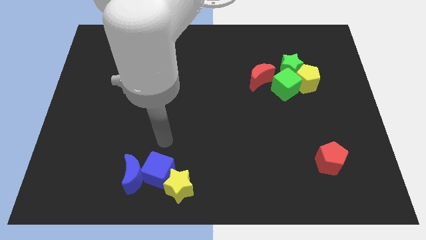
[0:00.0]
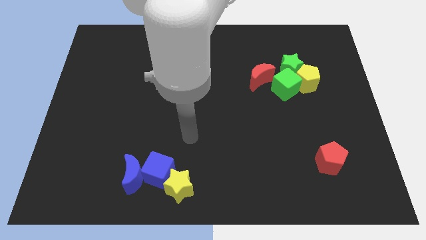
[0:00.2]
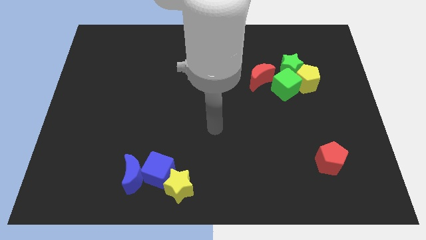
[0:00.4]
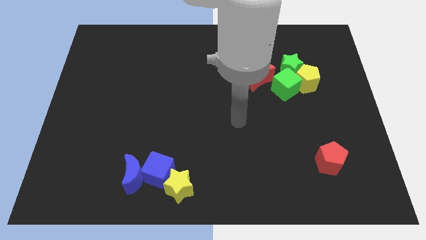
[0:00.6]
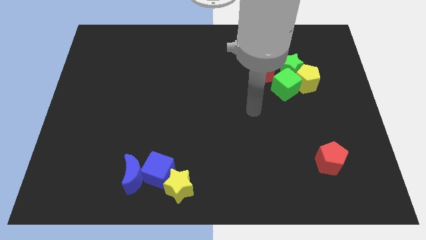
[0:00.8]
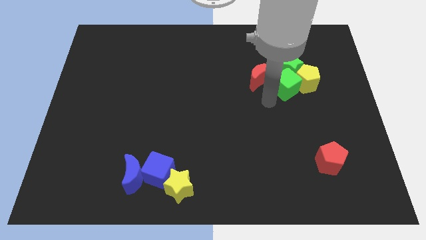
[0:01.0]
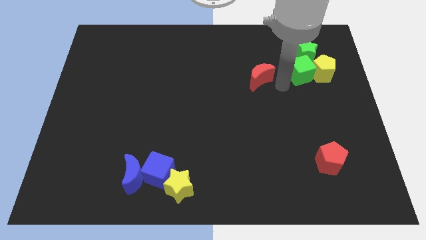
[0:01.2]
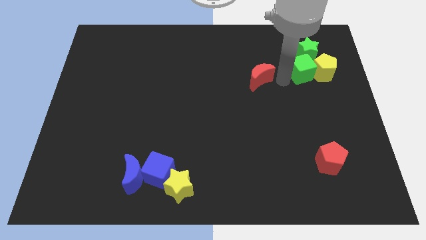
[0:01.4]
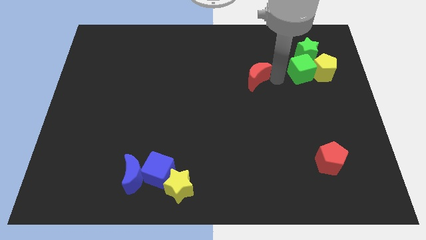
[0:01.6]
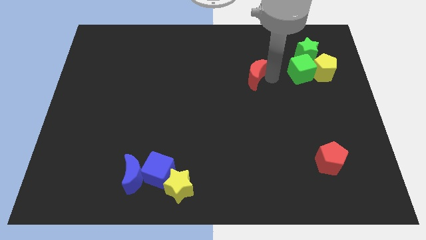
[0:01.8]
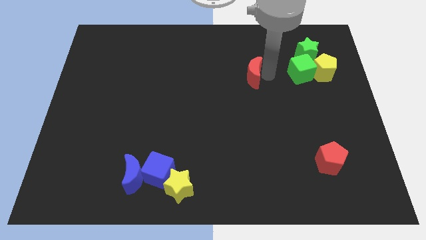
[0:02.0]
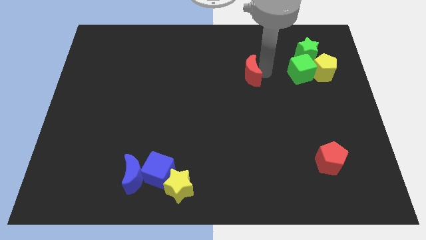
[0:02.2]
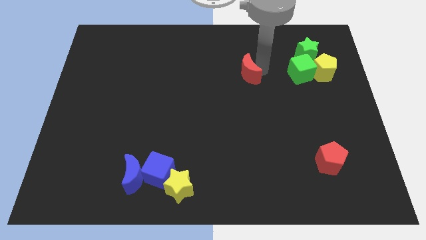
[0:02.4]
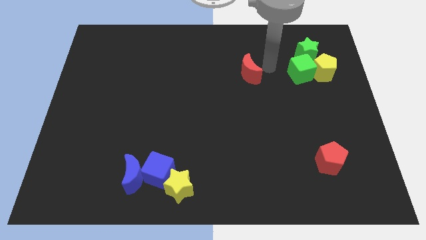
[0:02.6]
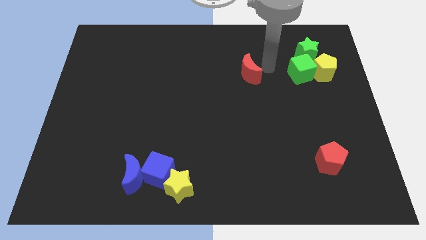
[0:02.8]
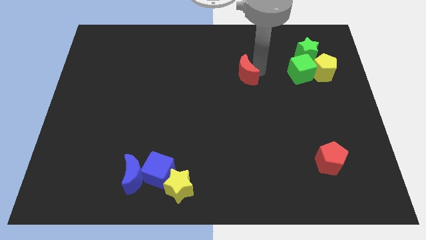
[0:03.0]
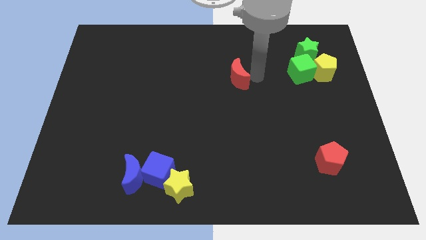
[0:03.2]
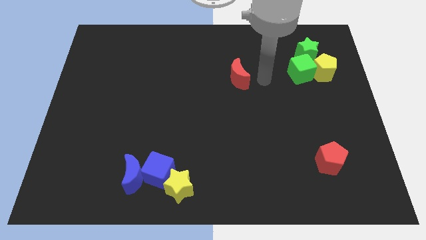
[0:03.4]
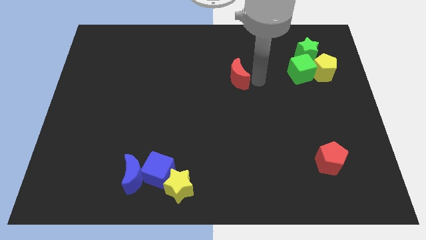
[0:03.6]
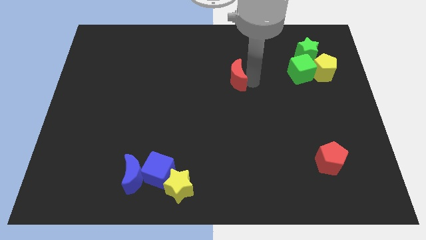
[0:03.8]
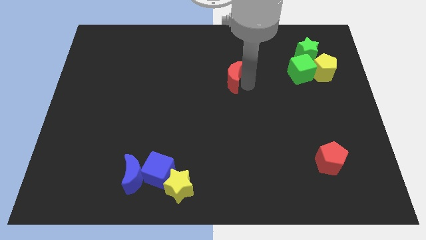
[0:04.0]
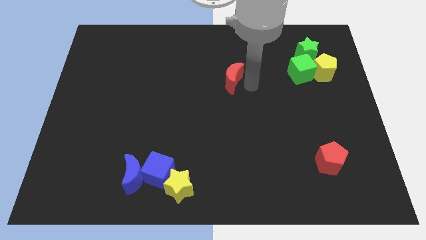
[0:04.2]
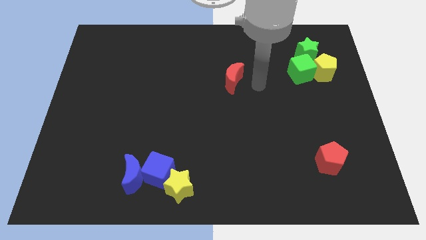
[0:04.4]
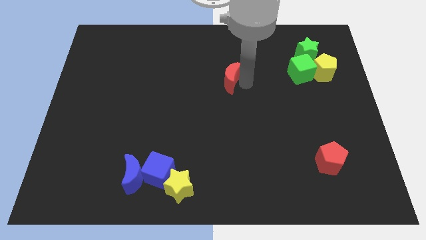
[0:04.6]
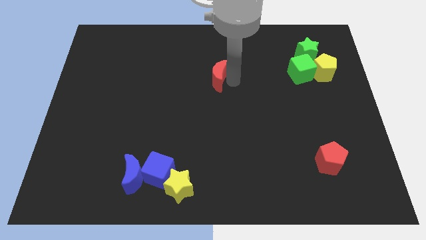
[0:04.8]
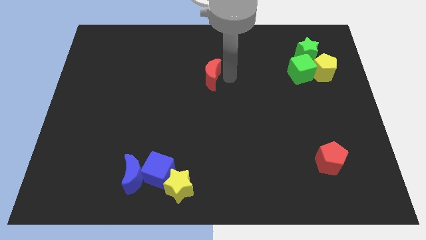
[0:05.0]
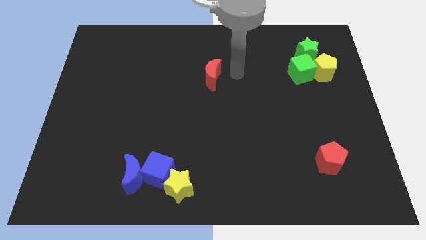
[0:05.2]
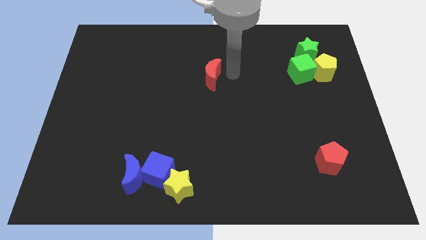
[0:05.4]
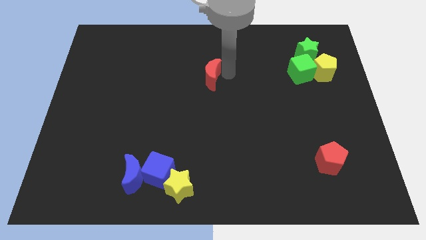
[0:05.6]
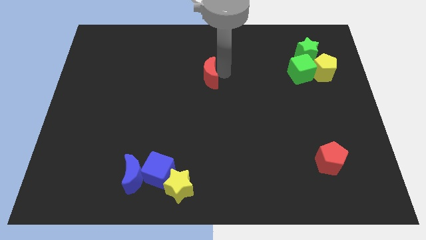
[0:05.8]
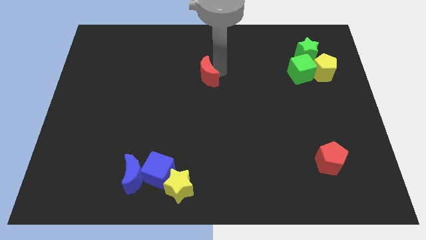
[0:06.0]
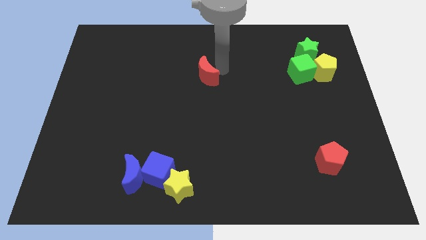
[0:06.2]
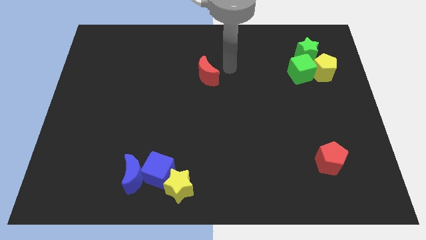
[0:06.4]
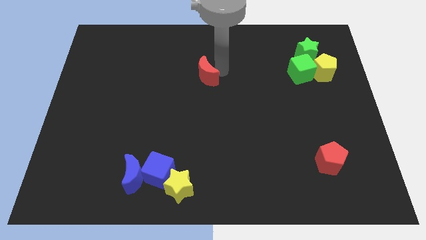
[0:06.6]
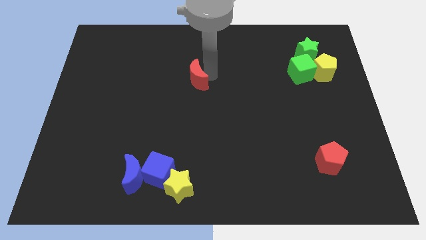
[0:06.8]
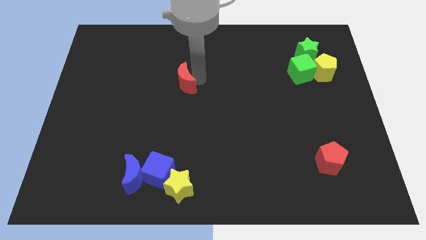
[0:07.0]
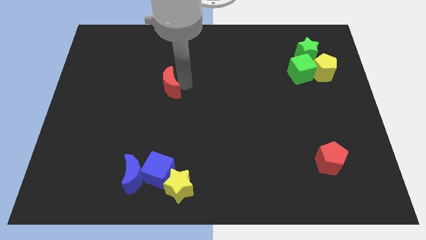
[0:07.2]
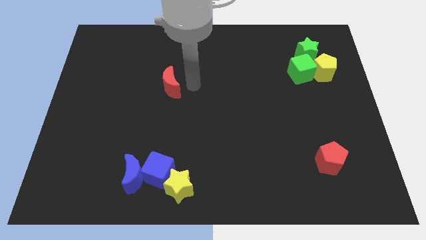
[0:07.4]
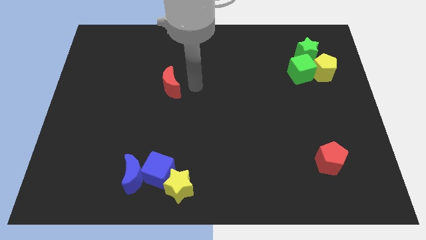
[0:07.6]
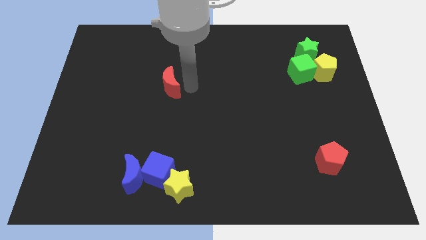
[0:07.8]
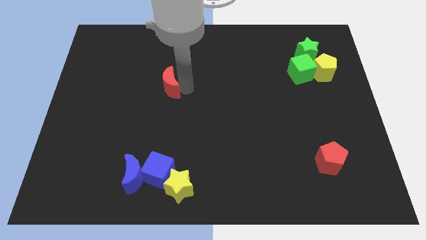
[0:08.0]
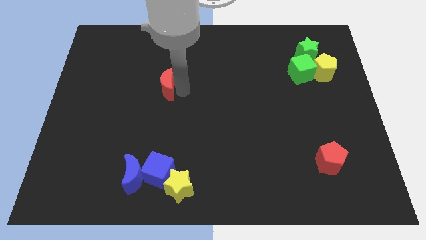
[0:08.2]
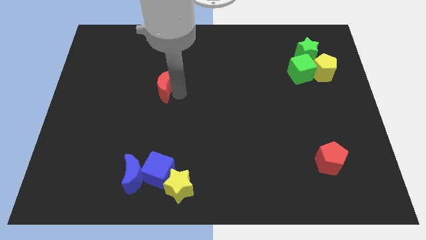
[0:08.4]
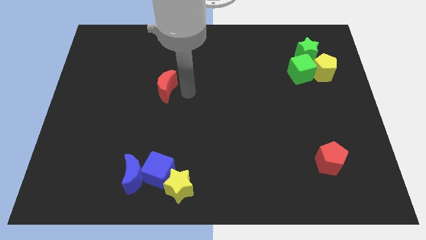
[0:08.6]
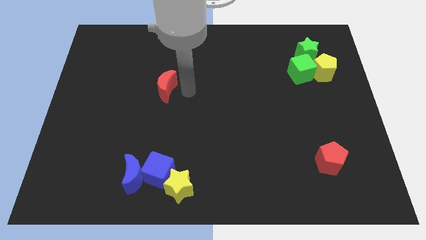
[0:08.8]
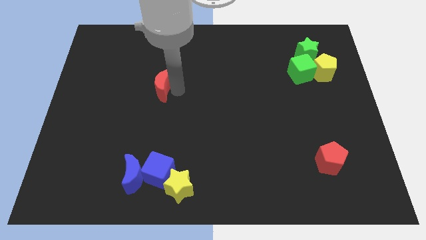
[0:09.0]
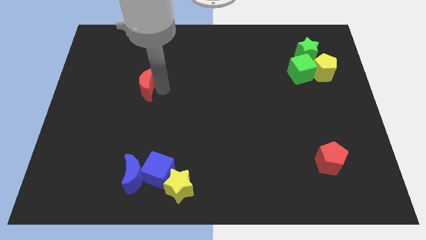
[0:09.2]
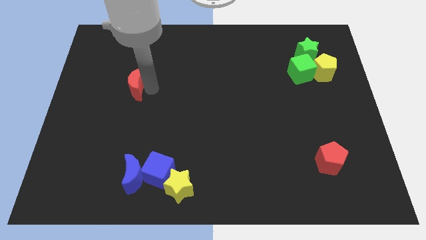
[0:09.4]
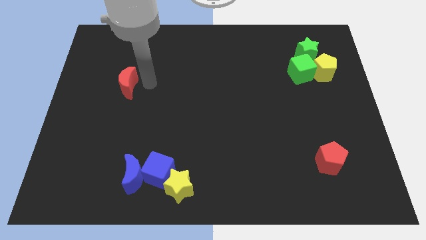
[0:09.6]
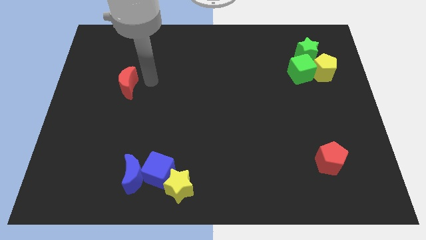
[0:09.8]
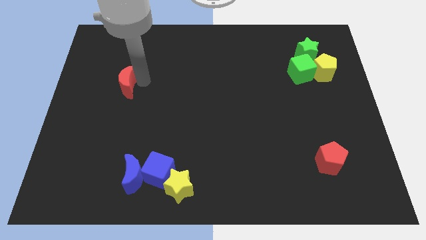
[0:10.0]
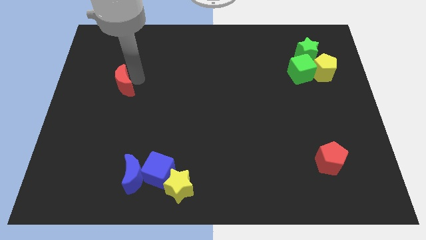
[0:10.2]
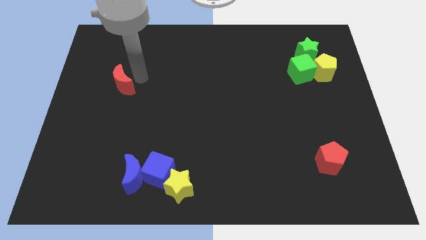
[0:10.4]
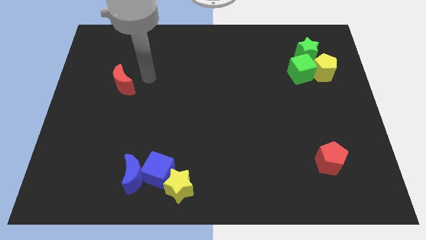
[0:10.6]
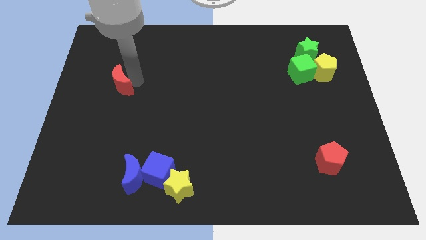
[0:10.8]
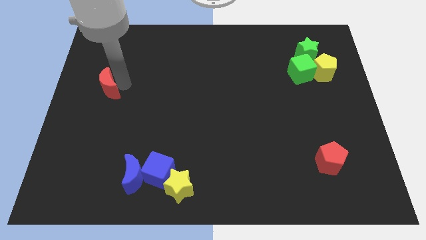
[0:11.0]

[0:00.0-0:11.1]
move the red moon to the center left

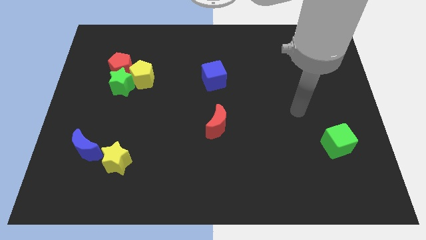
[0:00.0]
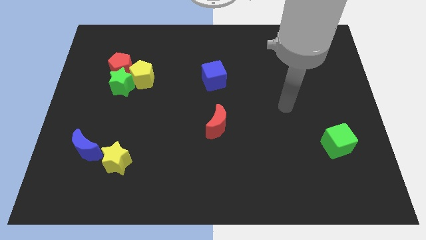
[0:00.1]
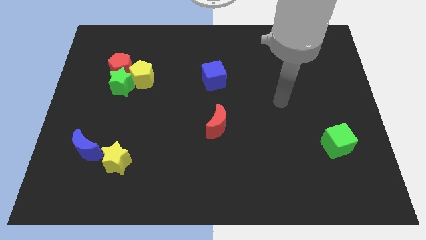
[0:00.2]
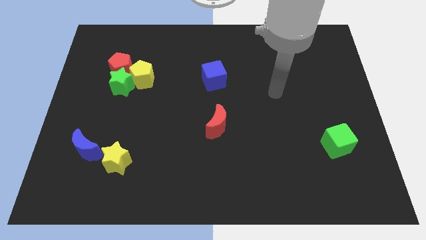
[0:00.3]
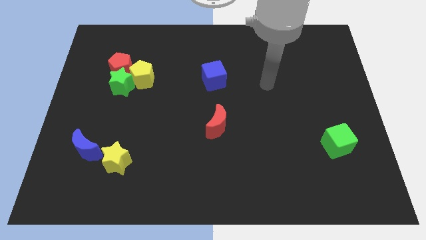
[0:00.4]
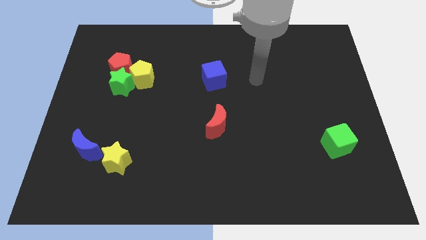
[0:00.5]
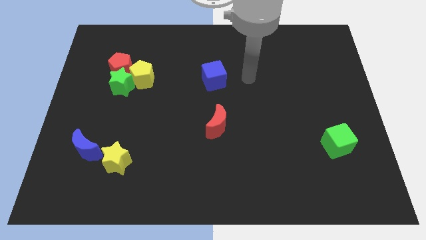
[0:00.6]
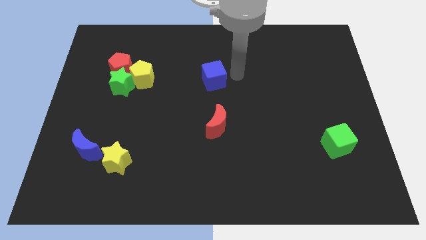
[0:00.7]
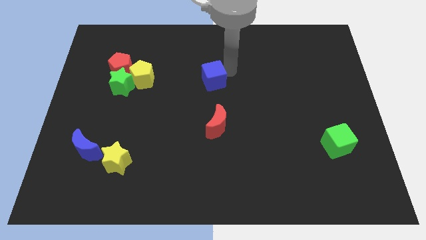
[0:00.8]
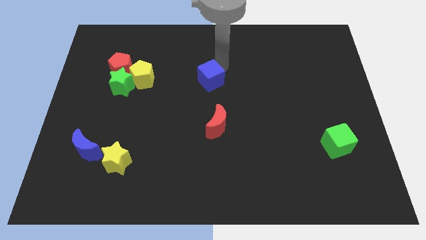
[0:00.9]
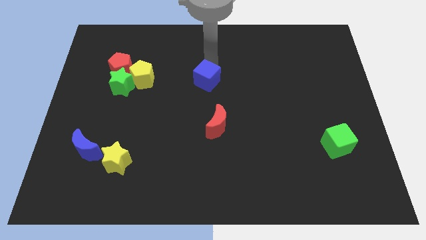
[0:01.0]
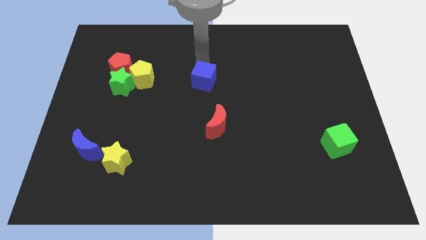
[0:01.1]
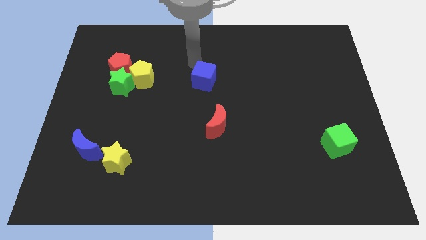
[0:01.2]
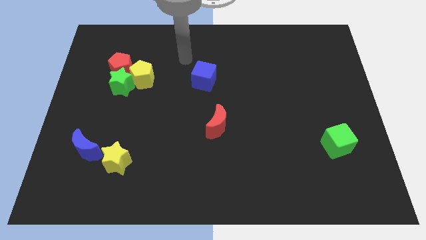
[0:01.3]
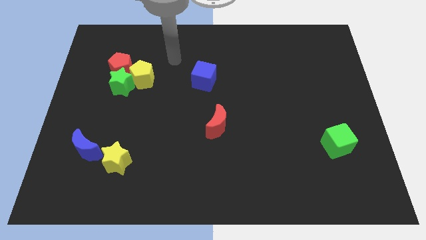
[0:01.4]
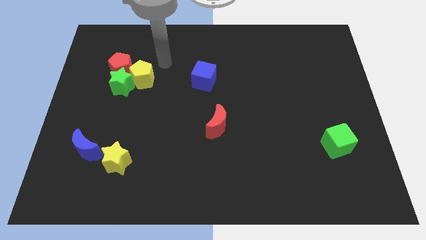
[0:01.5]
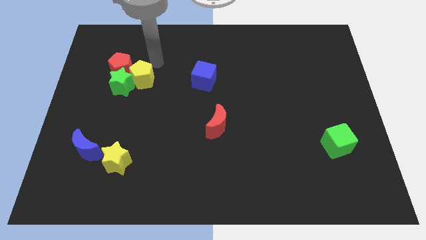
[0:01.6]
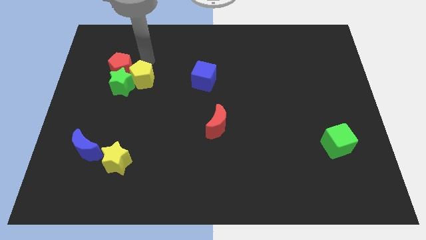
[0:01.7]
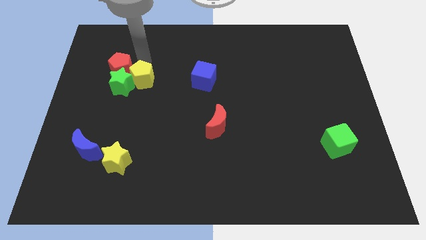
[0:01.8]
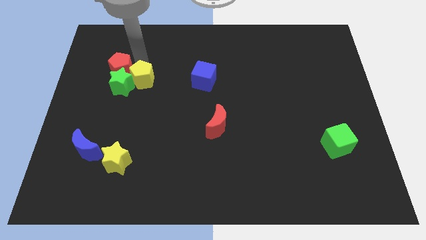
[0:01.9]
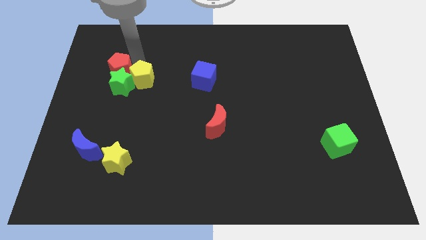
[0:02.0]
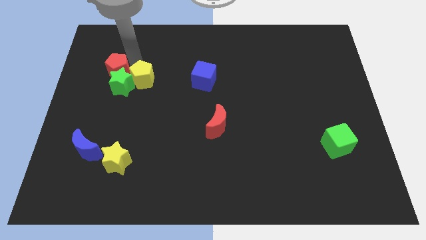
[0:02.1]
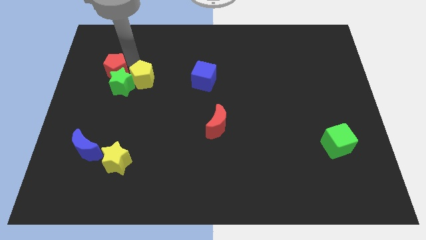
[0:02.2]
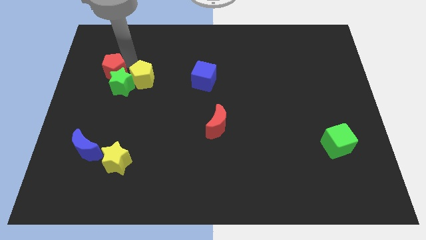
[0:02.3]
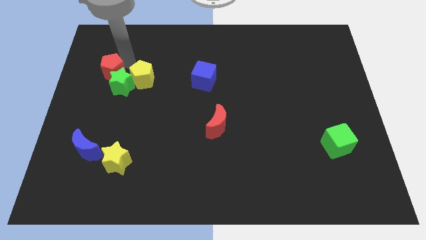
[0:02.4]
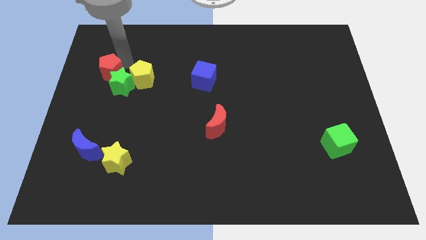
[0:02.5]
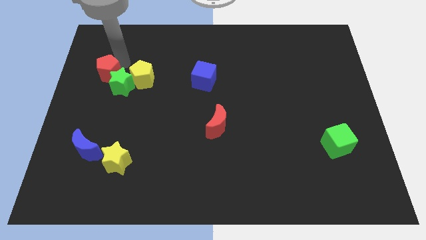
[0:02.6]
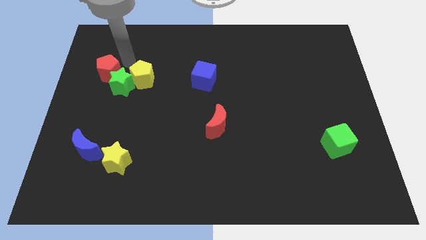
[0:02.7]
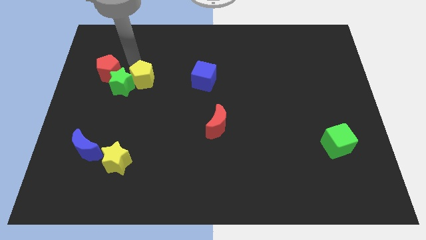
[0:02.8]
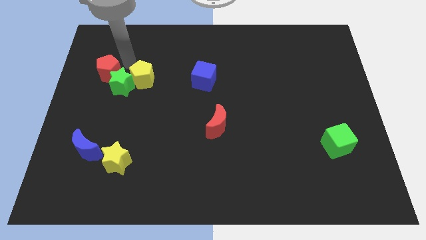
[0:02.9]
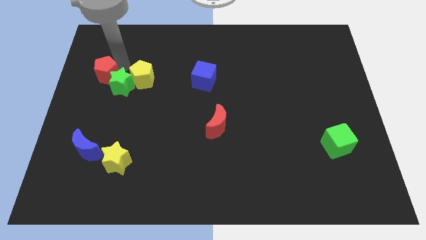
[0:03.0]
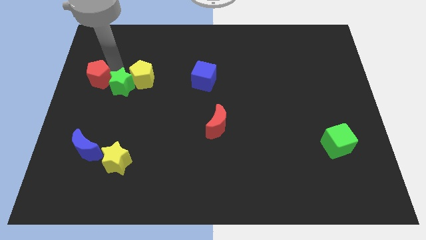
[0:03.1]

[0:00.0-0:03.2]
slide the red pentagon to the center left
